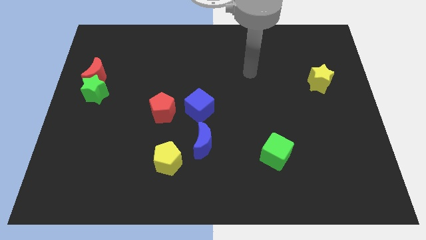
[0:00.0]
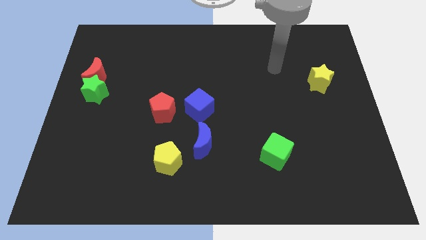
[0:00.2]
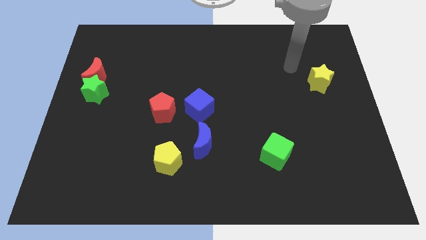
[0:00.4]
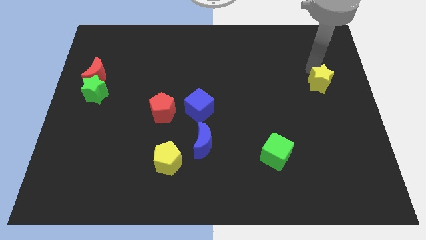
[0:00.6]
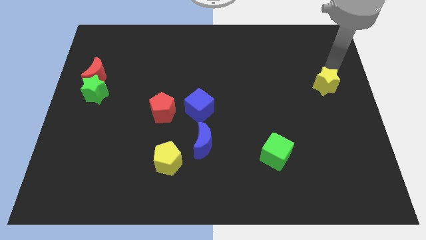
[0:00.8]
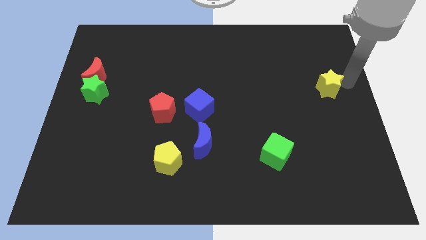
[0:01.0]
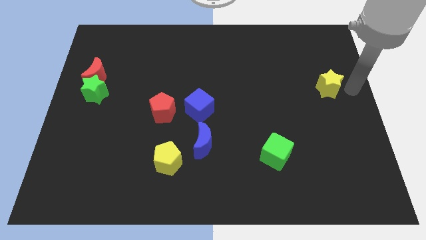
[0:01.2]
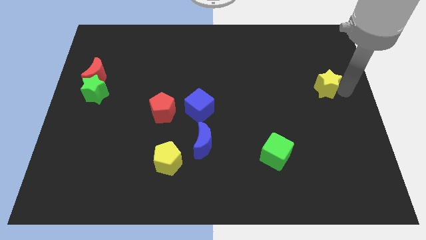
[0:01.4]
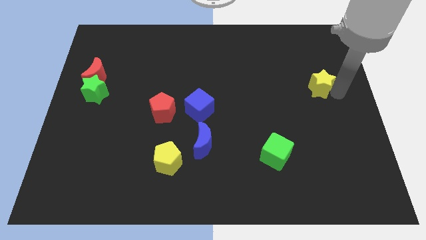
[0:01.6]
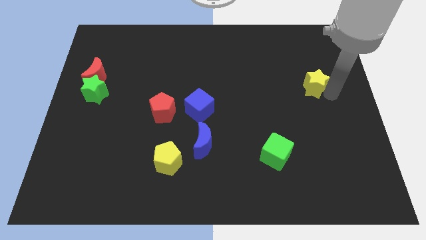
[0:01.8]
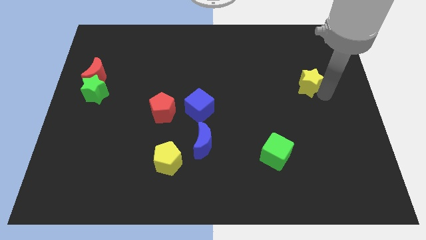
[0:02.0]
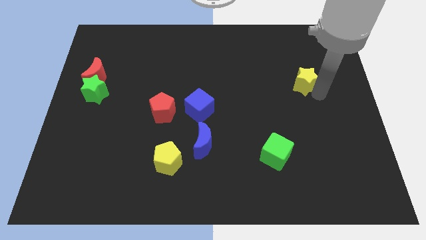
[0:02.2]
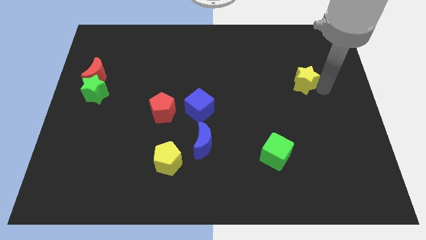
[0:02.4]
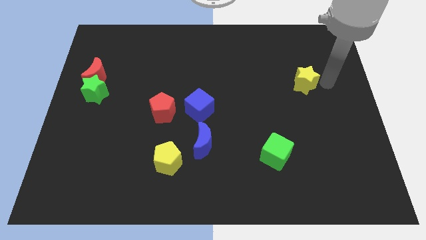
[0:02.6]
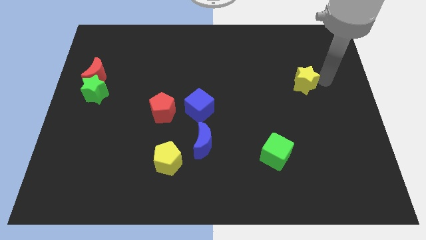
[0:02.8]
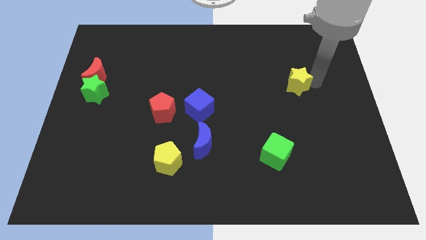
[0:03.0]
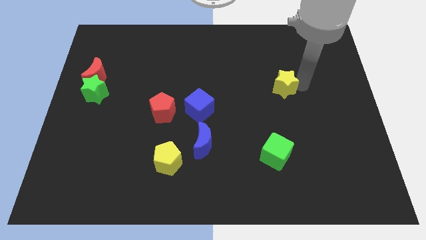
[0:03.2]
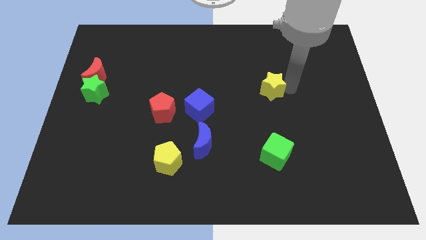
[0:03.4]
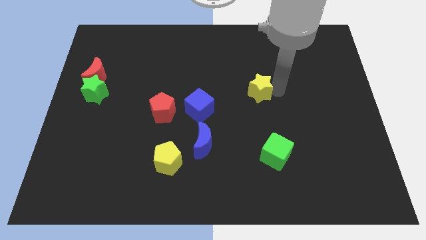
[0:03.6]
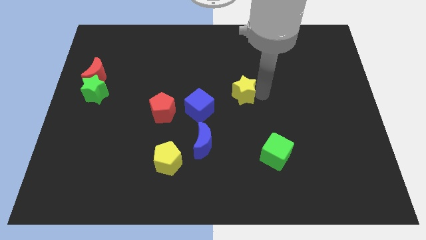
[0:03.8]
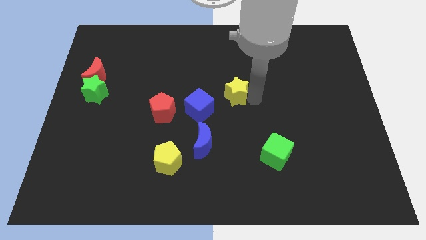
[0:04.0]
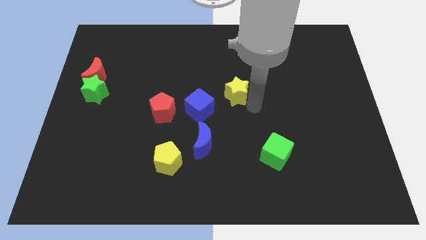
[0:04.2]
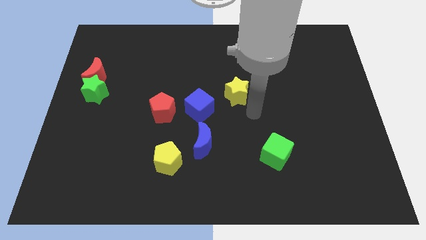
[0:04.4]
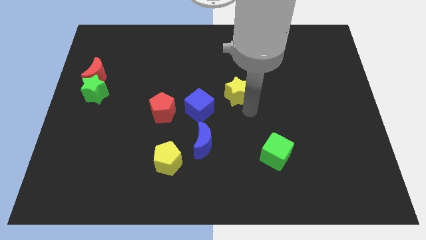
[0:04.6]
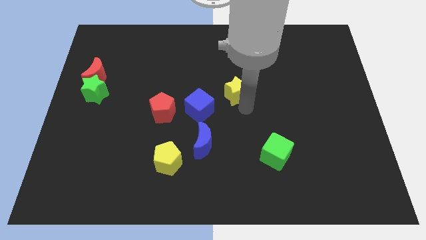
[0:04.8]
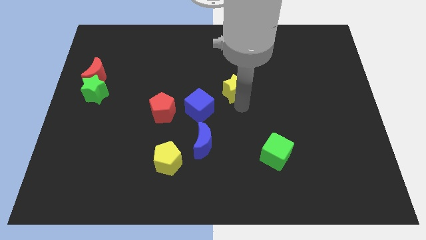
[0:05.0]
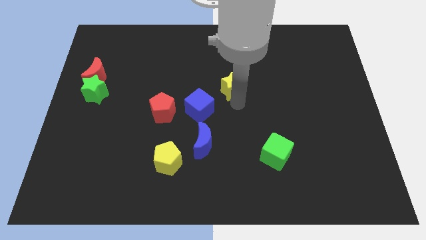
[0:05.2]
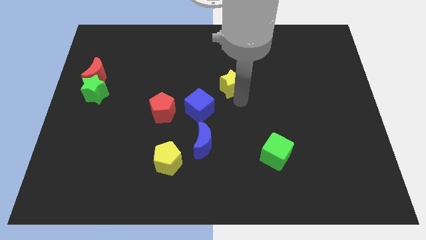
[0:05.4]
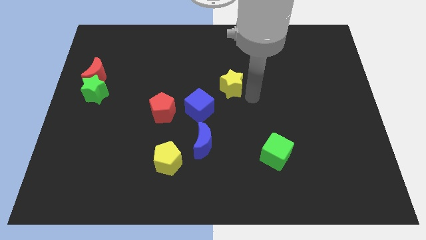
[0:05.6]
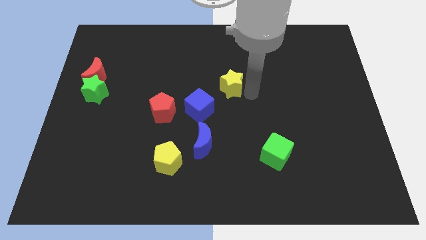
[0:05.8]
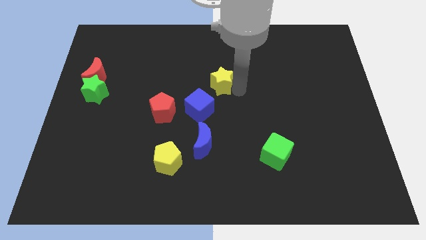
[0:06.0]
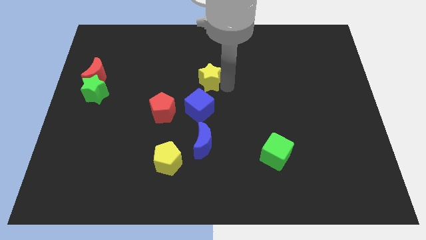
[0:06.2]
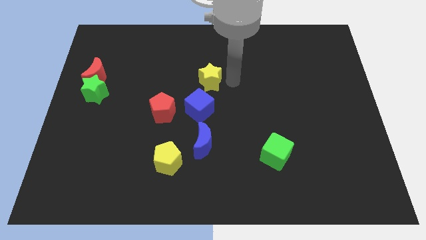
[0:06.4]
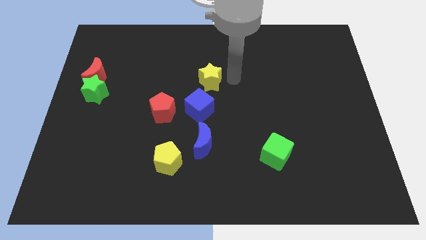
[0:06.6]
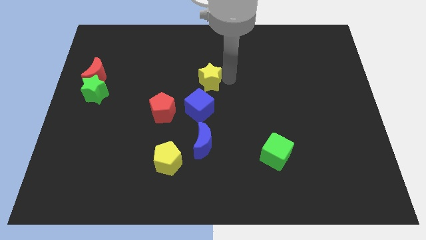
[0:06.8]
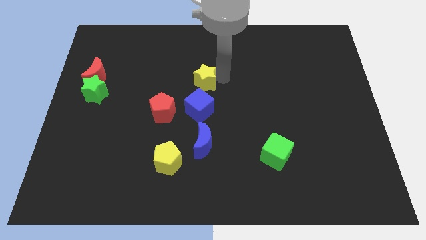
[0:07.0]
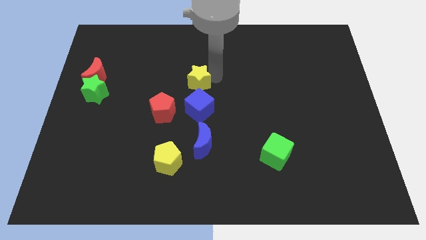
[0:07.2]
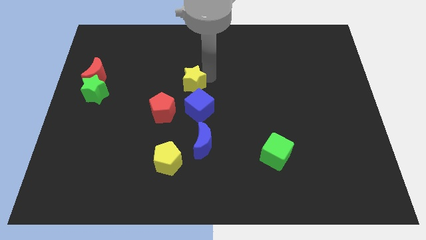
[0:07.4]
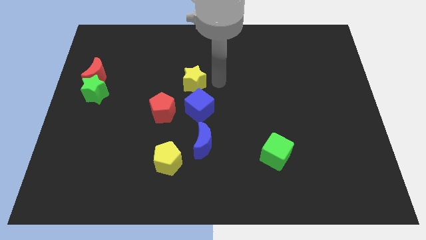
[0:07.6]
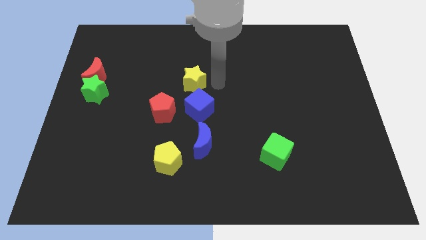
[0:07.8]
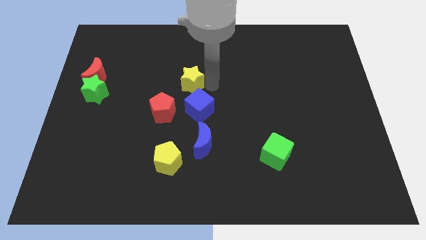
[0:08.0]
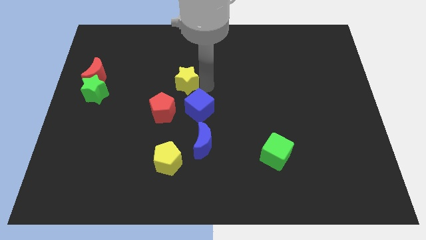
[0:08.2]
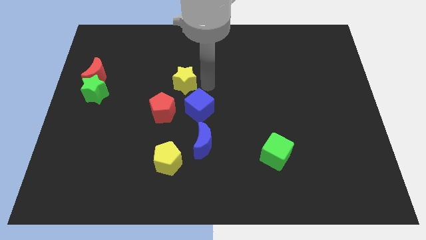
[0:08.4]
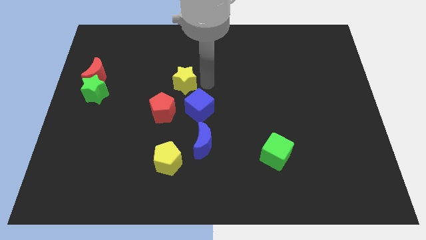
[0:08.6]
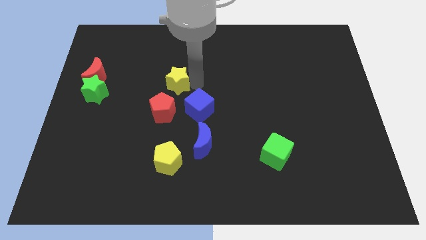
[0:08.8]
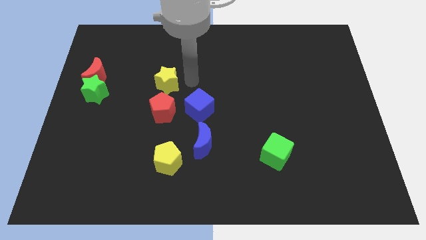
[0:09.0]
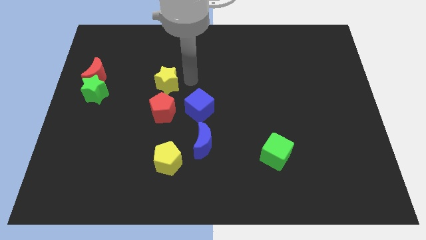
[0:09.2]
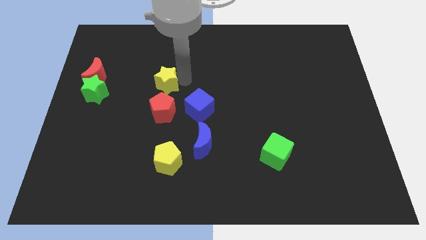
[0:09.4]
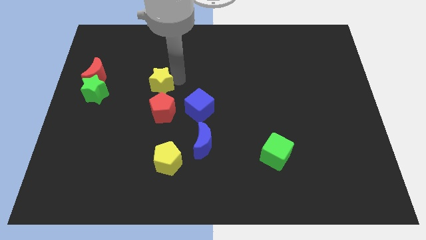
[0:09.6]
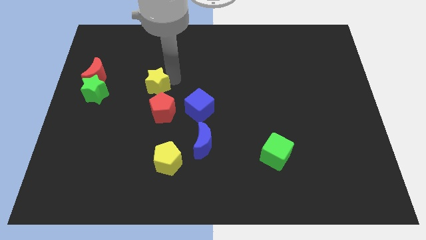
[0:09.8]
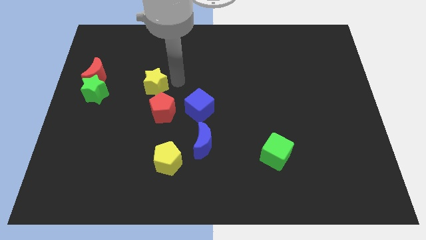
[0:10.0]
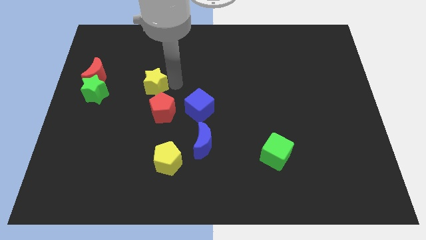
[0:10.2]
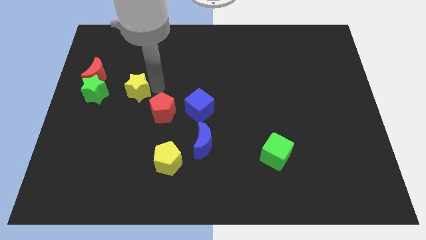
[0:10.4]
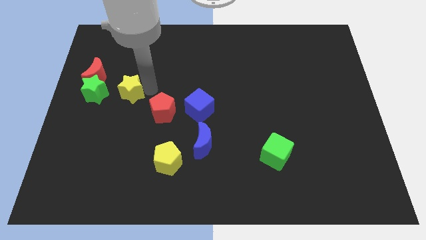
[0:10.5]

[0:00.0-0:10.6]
slide the yellow star to the bottom right of the red moon
